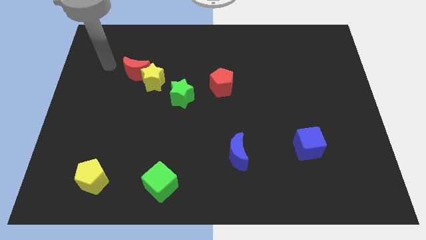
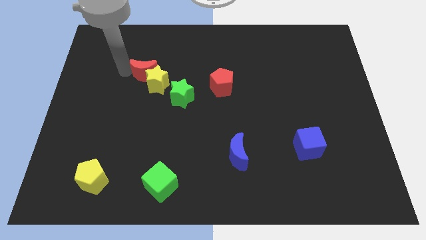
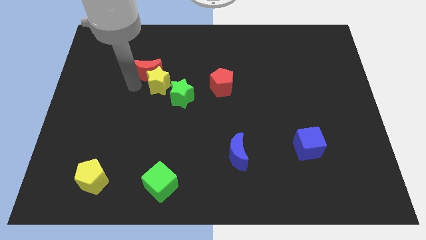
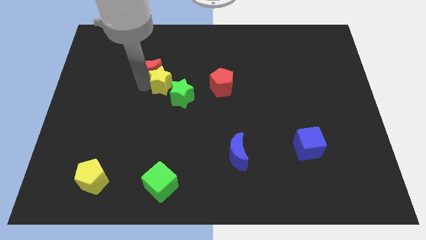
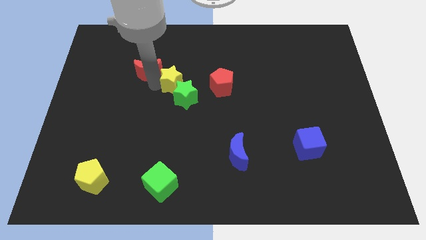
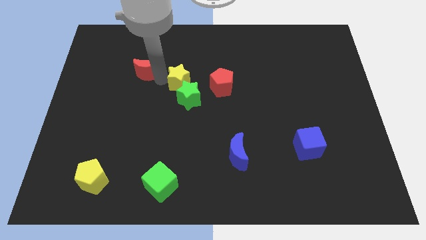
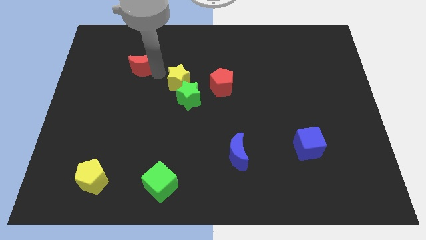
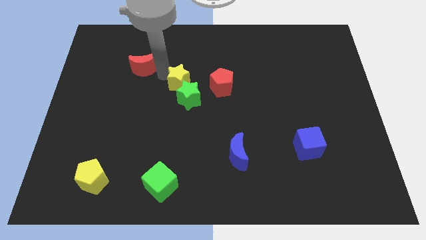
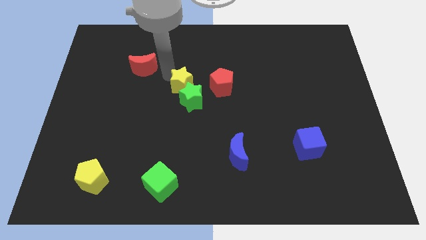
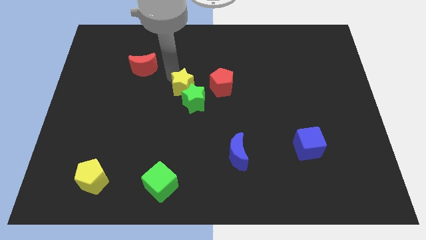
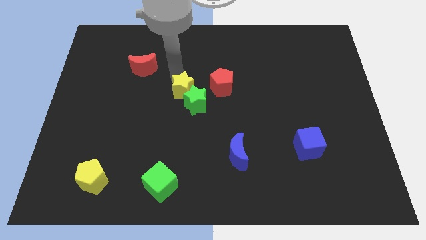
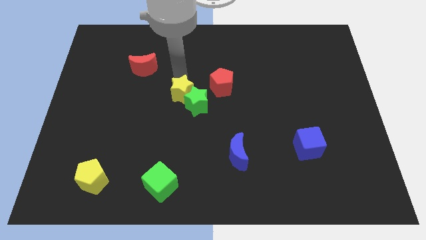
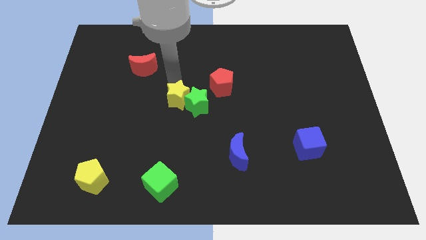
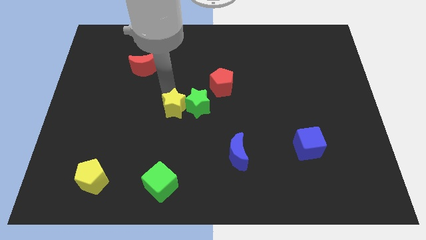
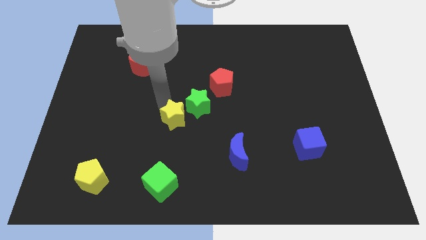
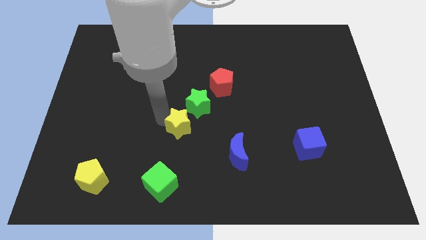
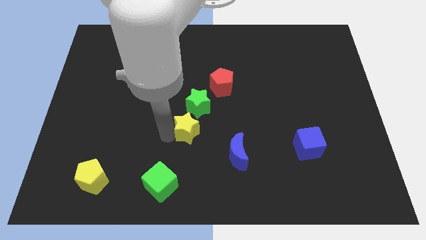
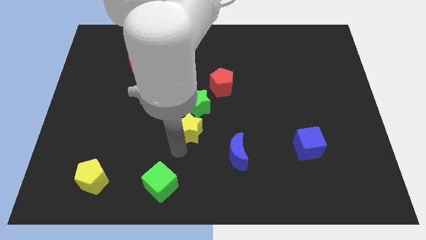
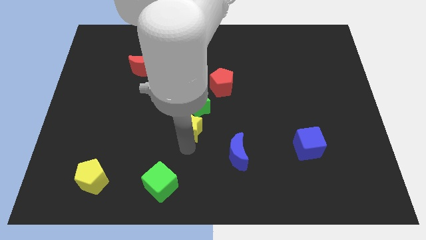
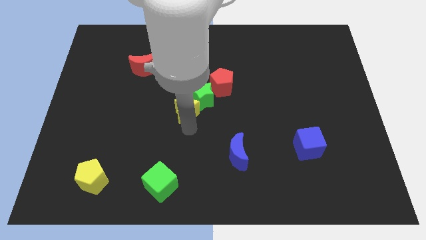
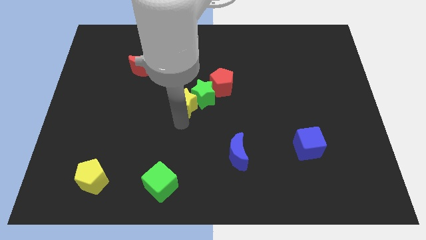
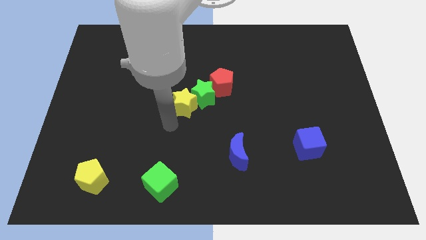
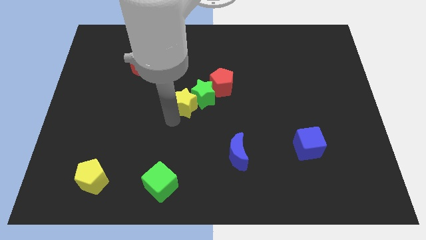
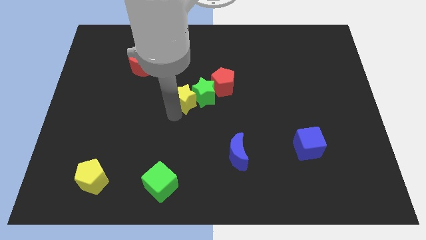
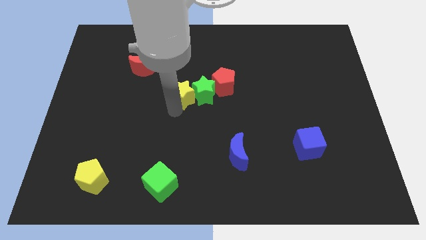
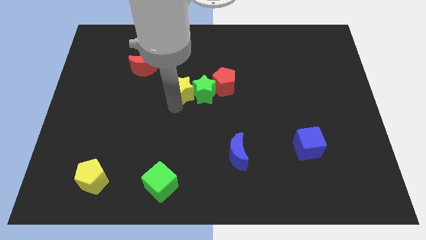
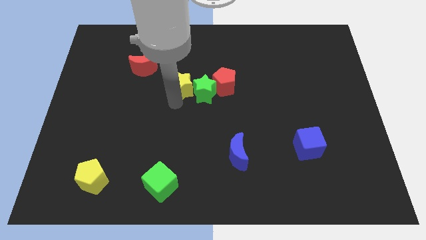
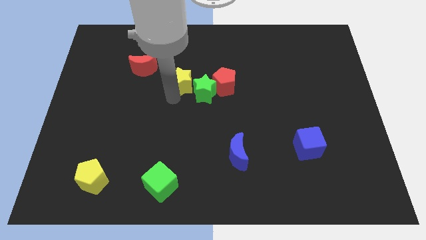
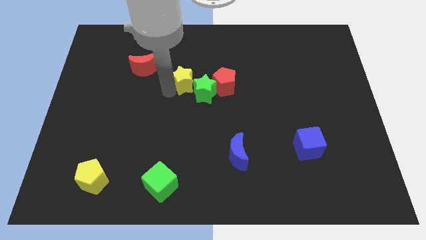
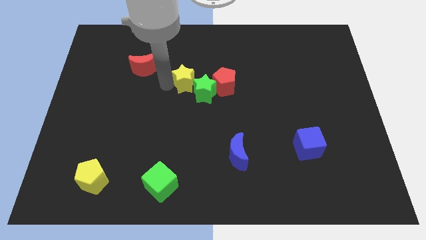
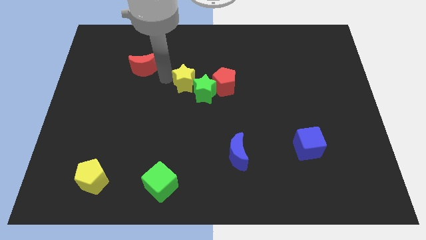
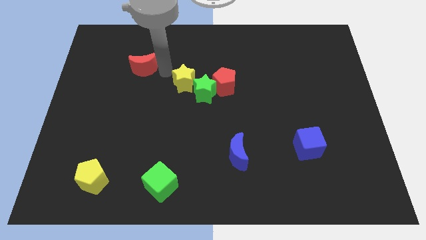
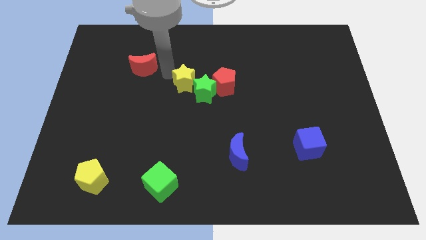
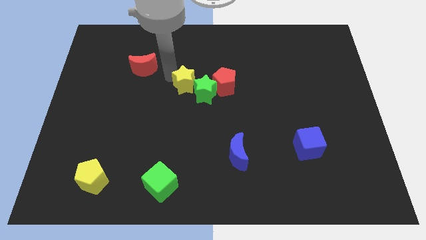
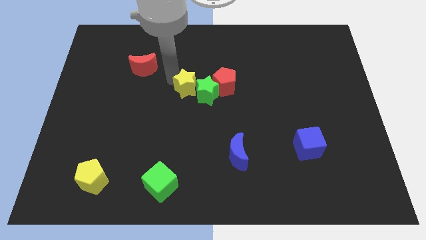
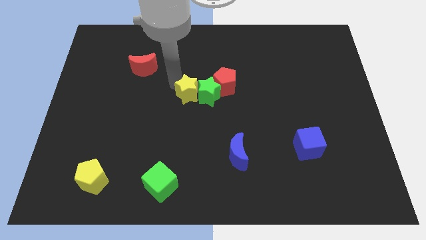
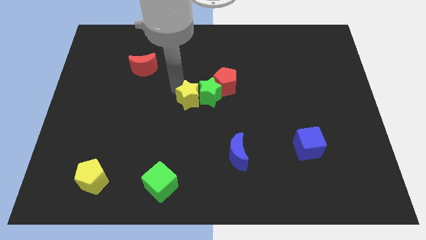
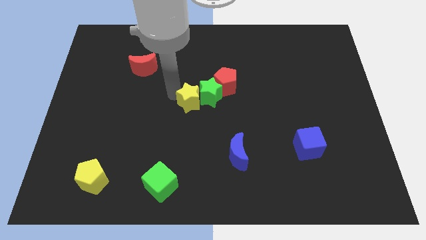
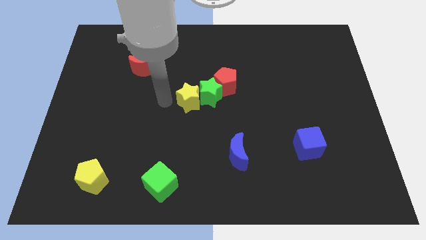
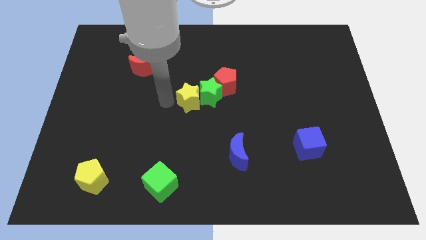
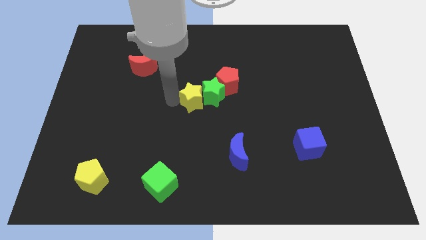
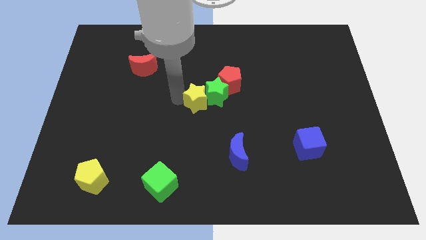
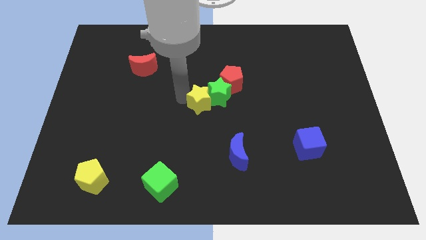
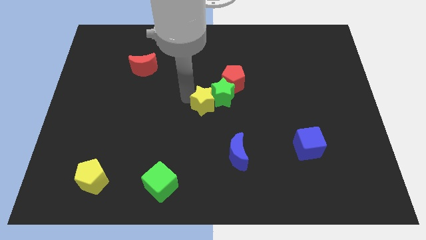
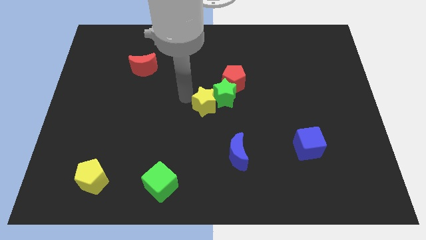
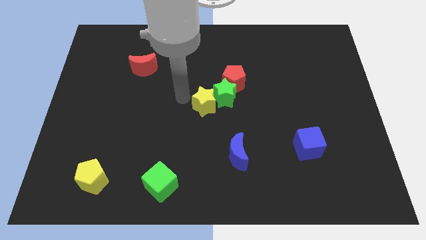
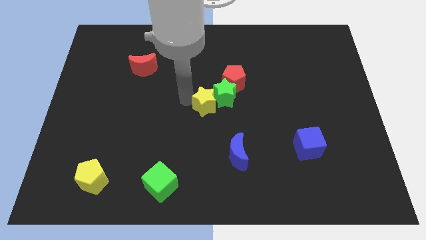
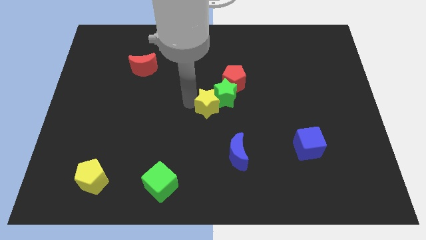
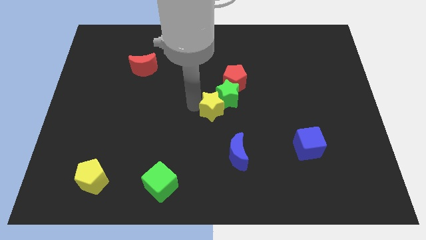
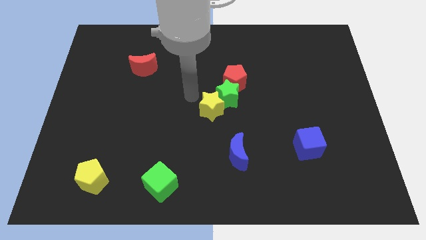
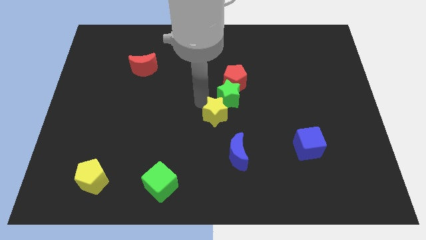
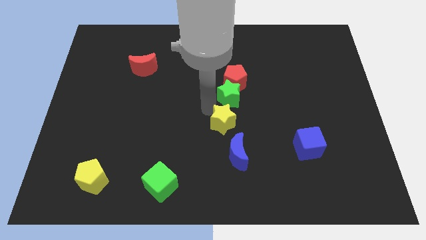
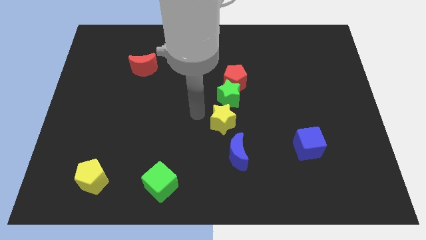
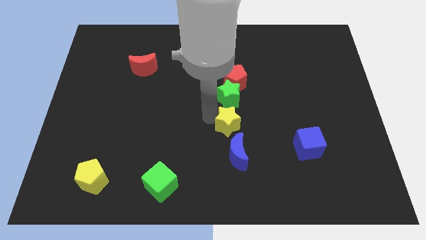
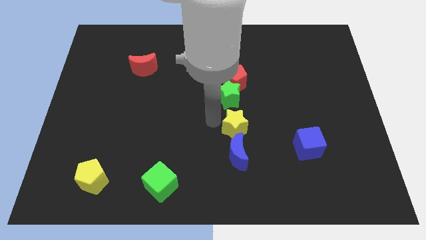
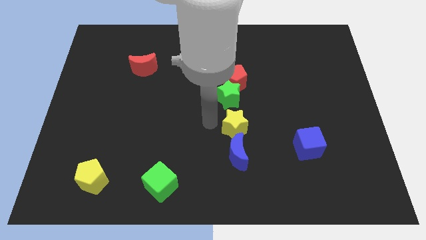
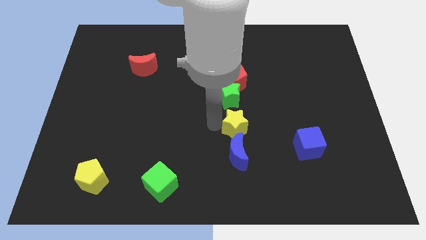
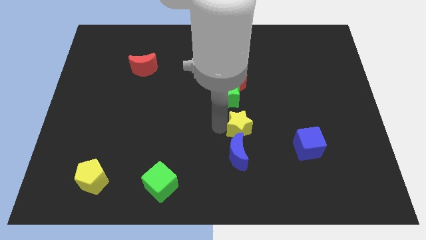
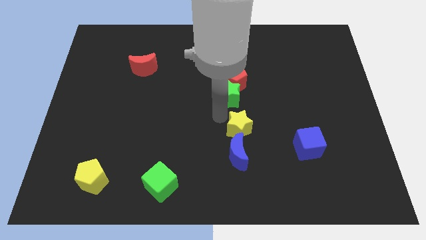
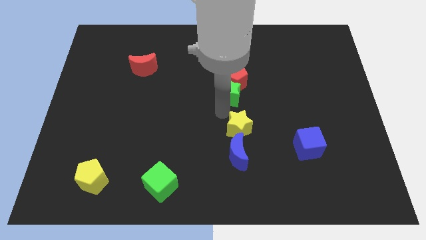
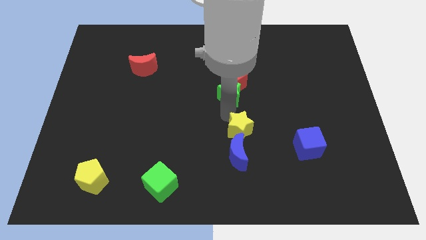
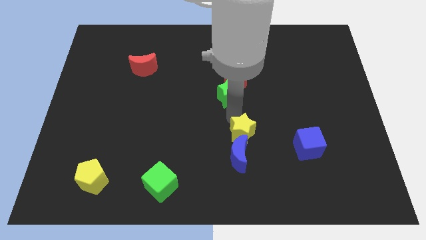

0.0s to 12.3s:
push the yellow star to the left of the blue cube

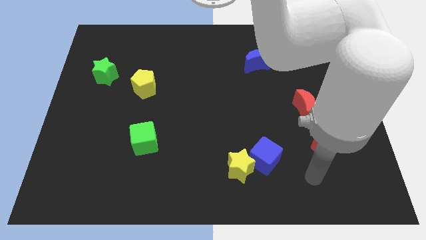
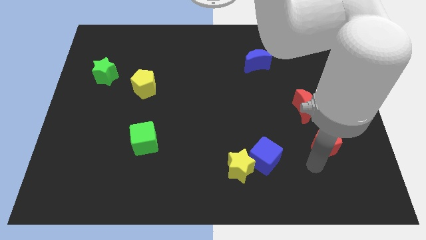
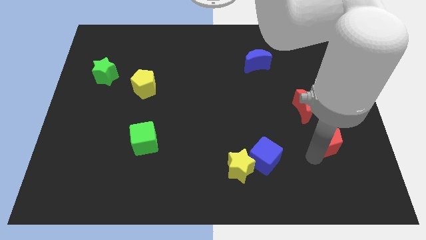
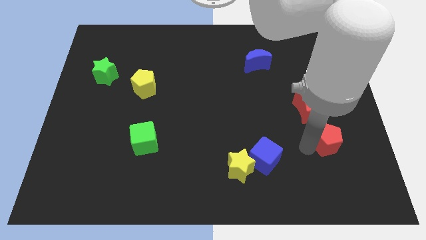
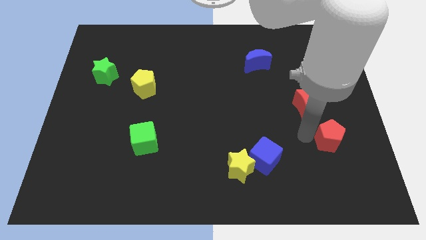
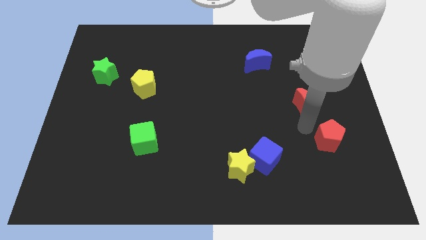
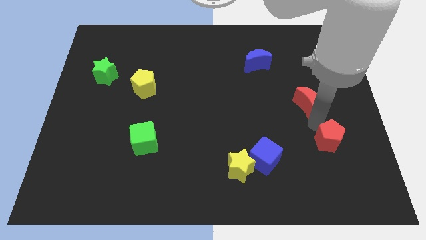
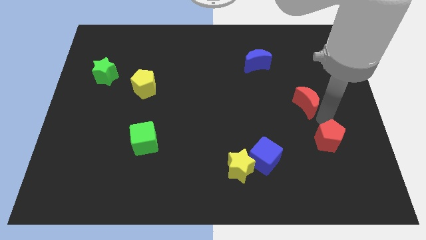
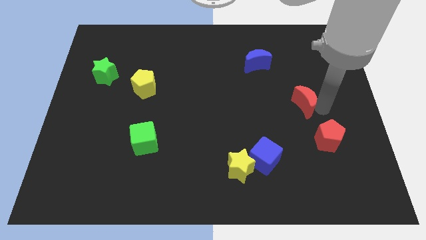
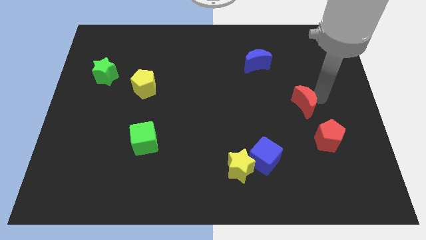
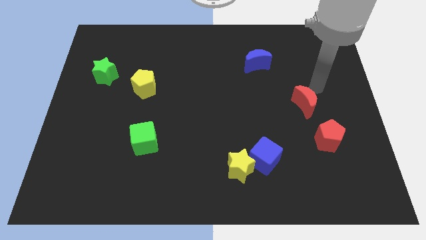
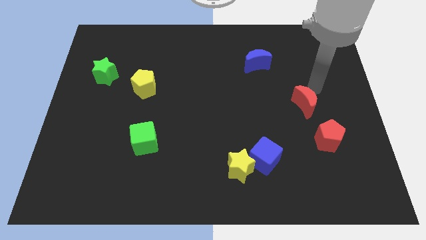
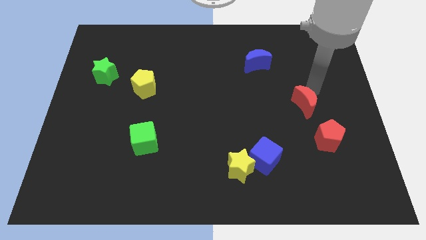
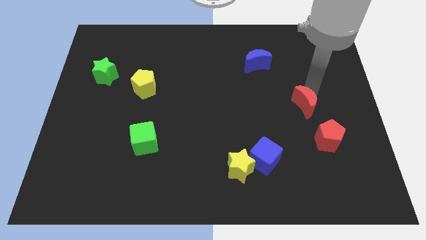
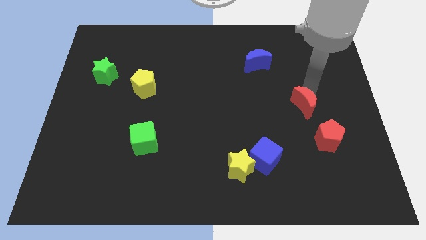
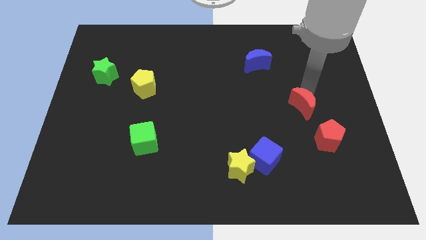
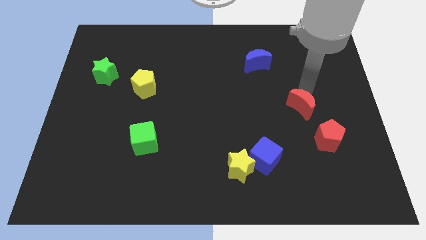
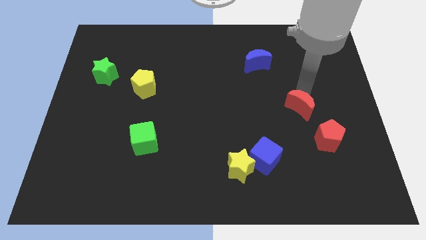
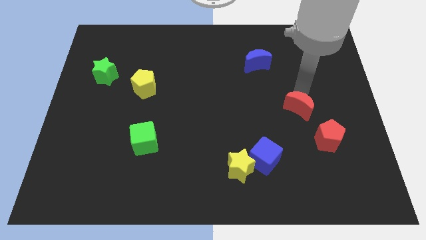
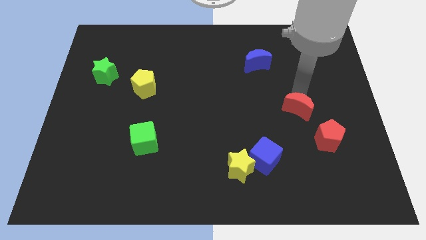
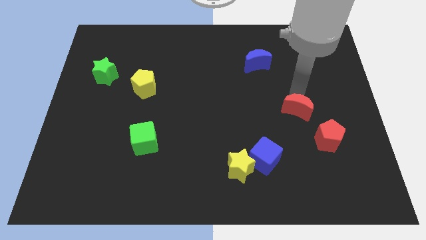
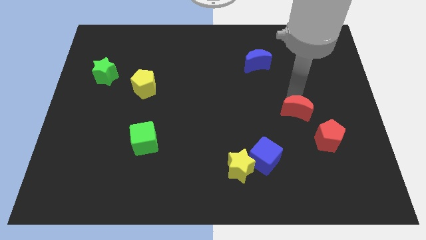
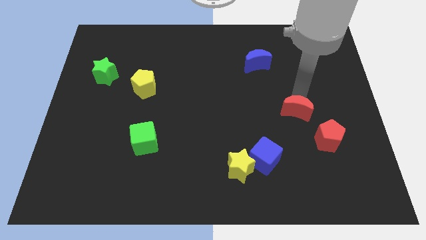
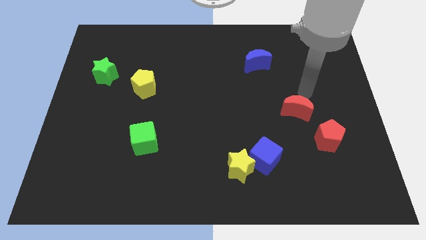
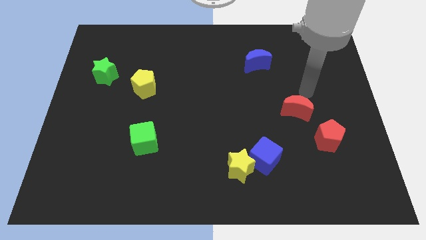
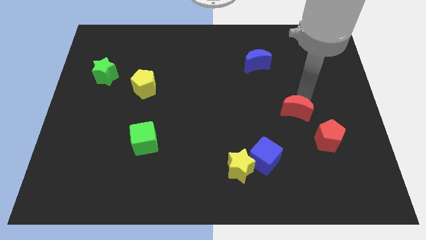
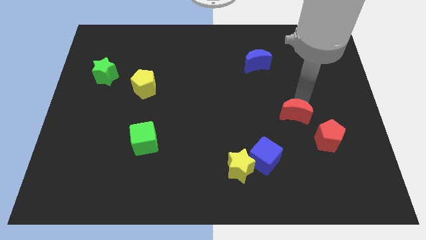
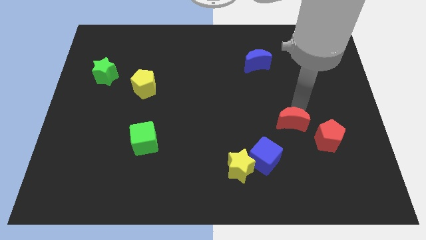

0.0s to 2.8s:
put the red moon to the left of the red pentagon
